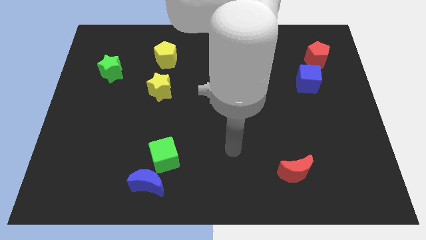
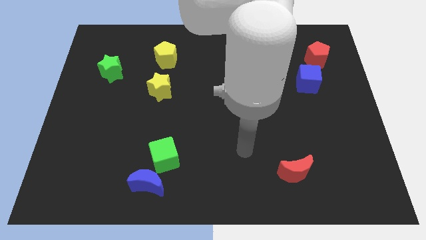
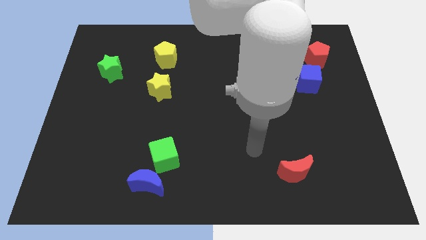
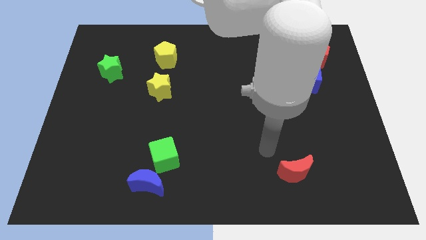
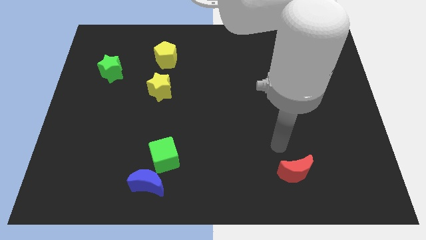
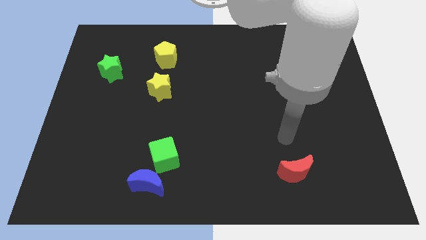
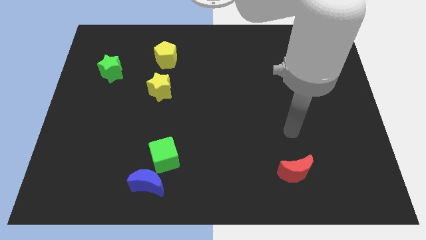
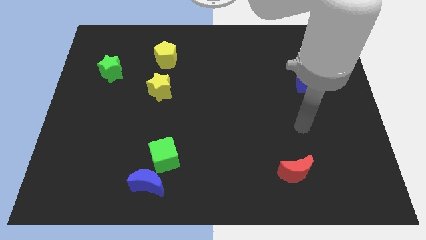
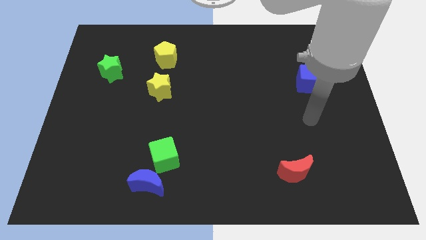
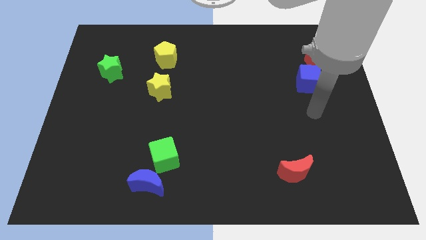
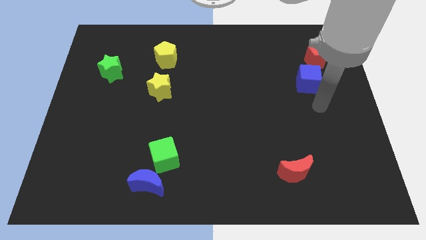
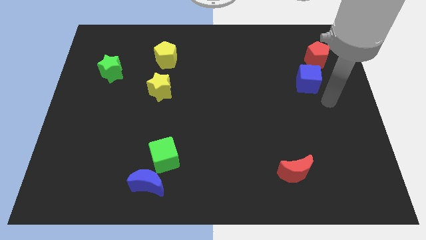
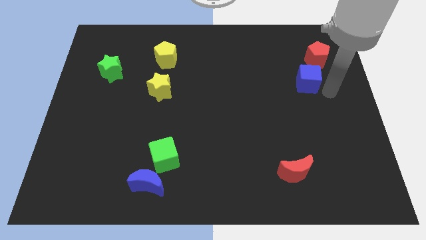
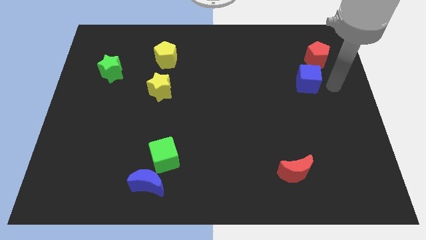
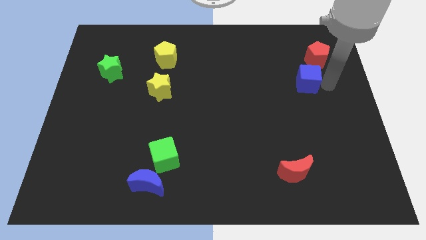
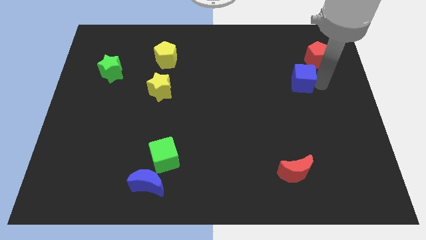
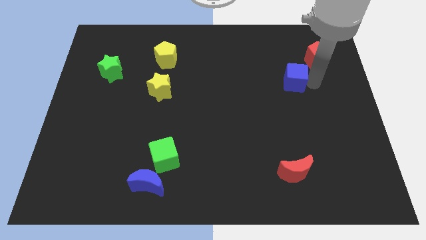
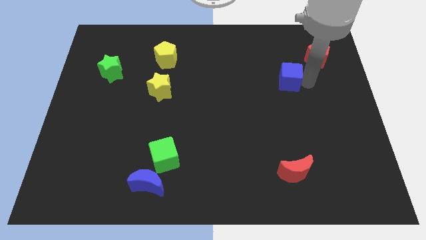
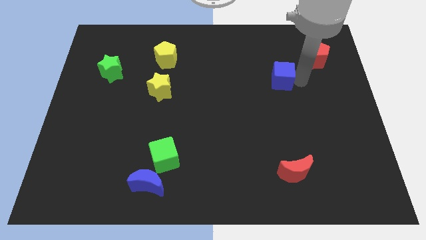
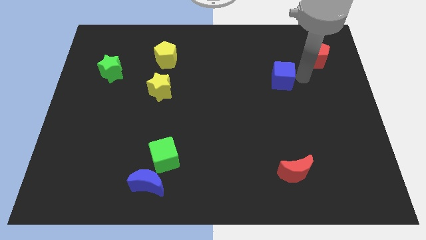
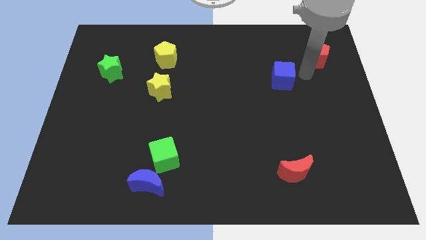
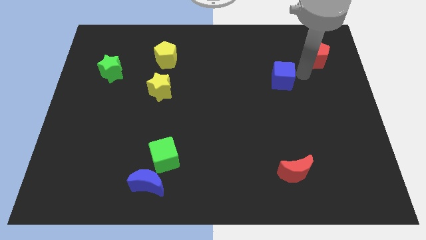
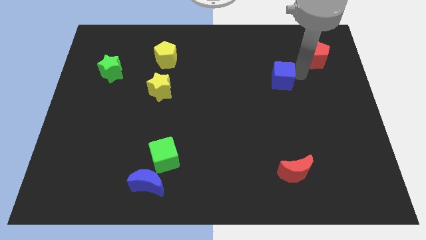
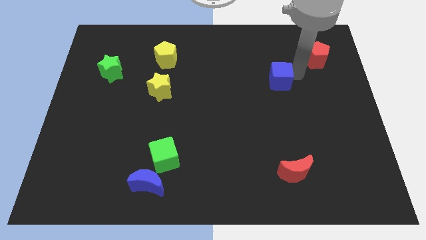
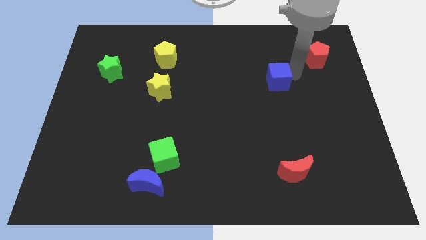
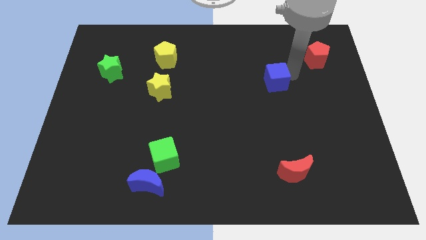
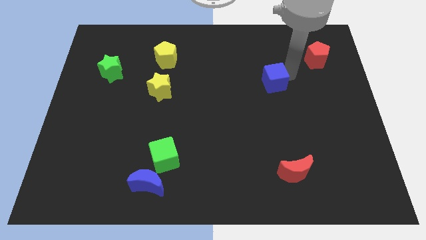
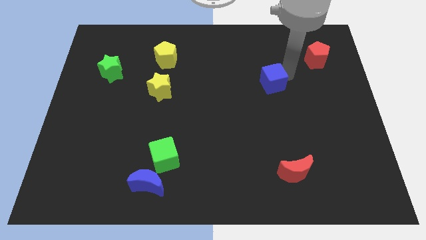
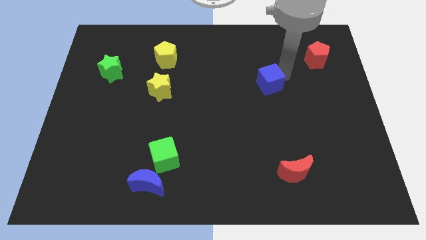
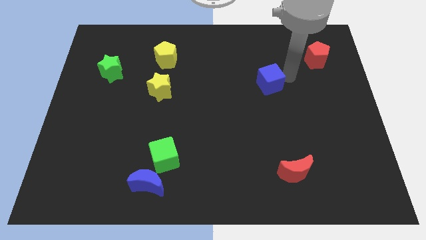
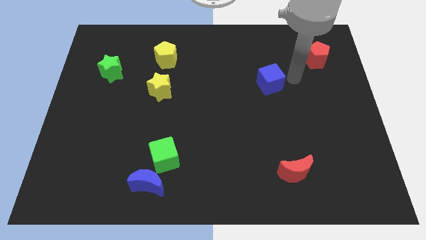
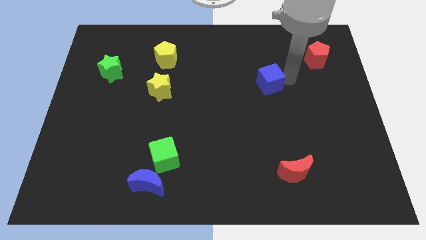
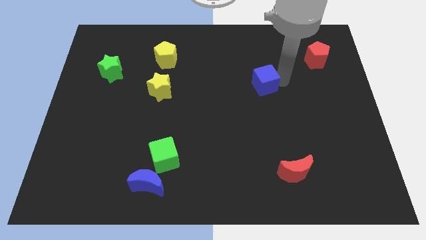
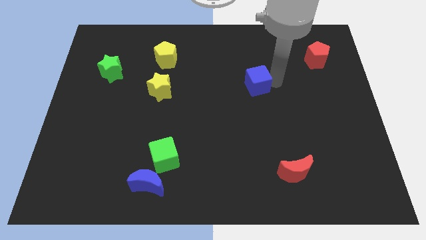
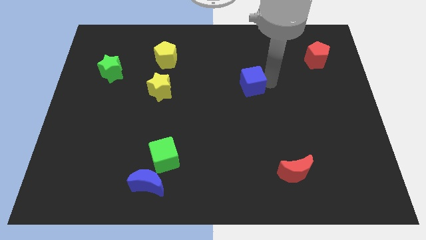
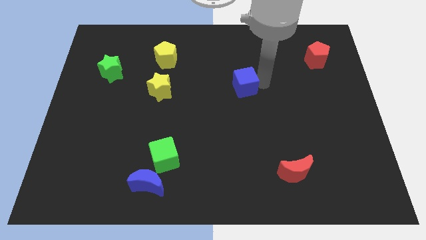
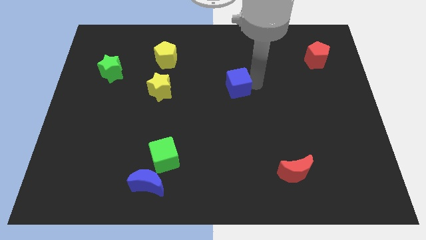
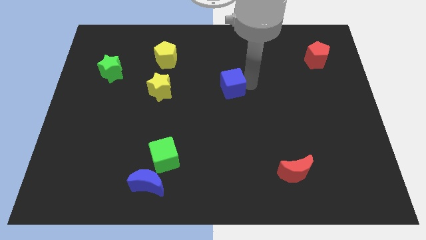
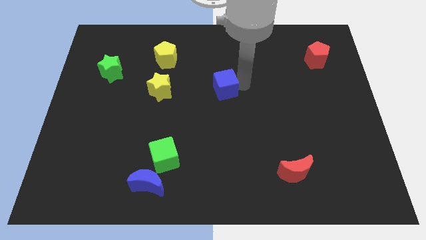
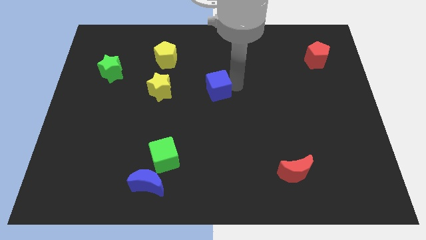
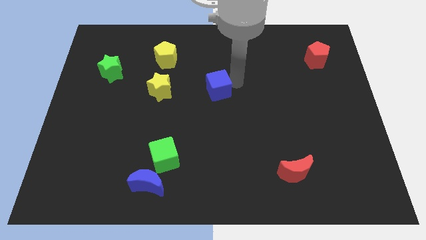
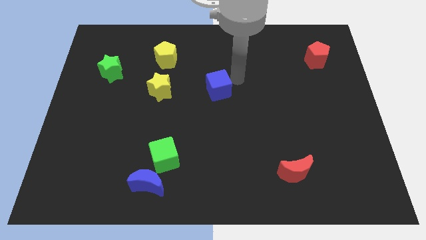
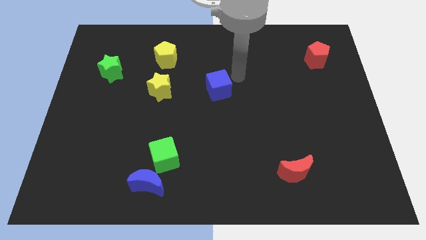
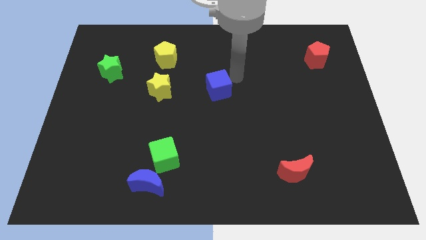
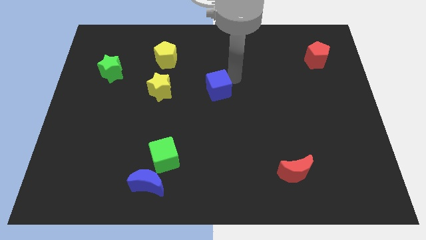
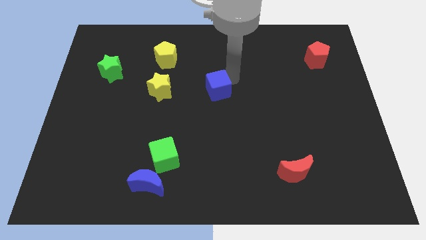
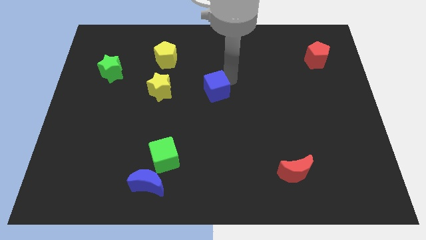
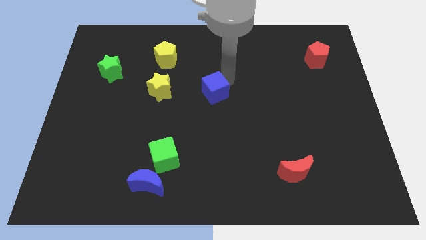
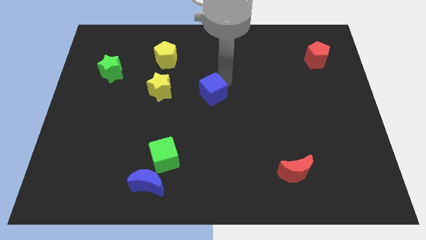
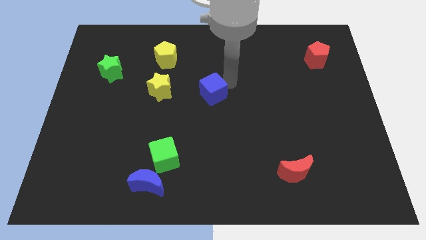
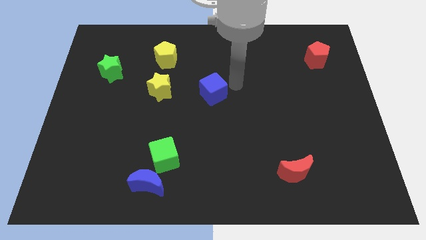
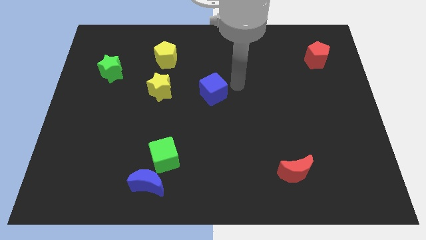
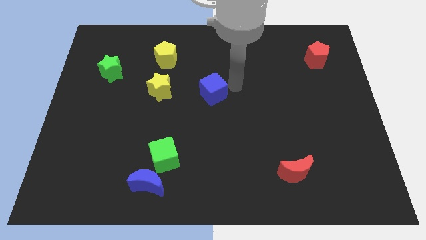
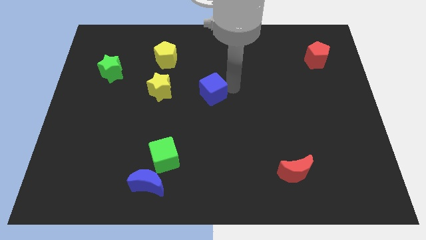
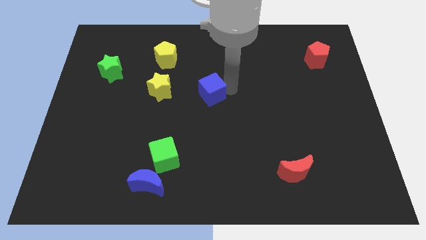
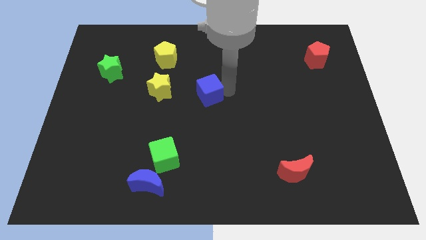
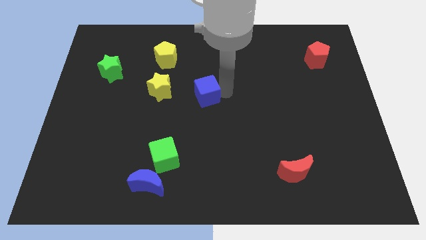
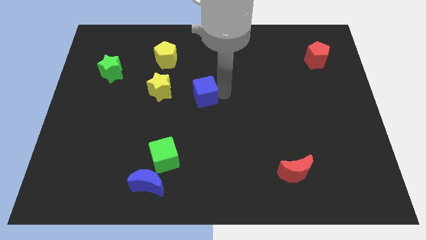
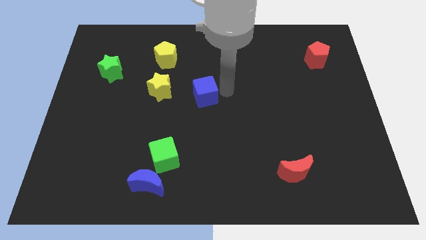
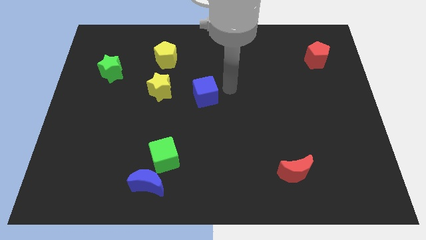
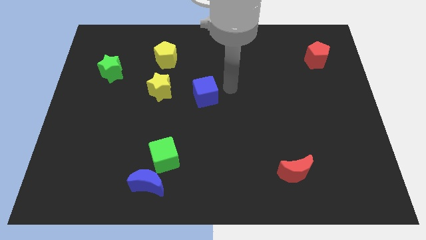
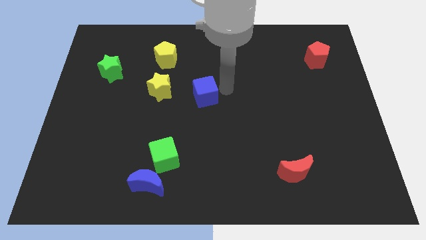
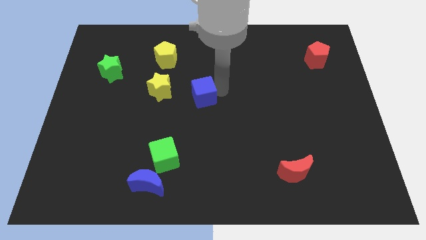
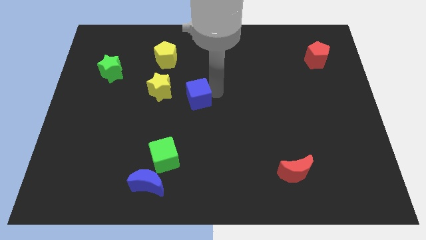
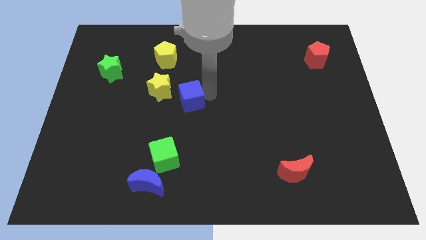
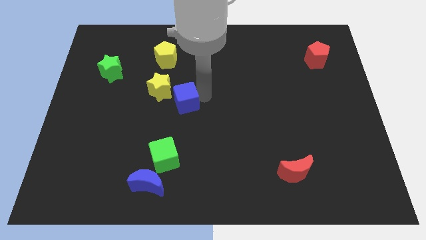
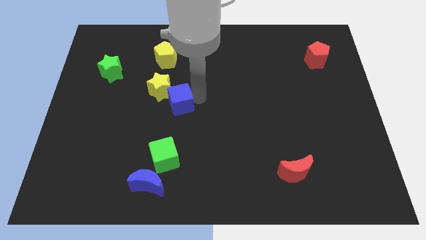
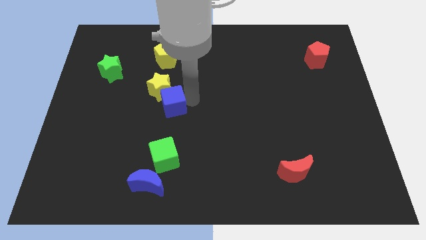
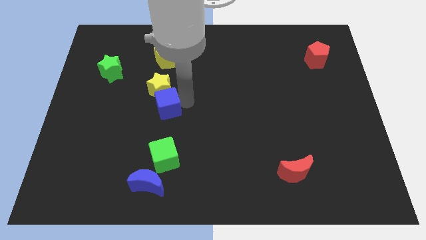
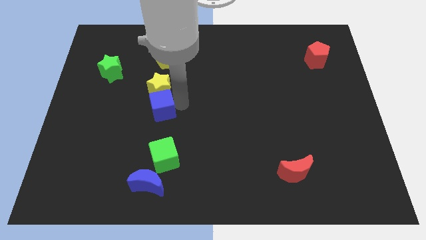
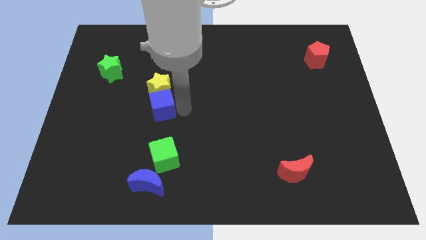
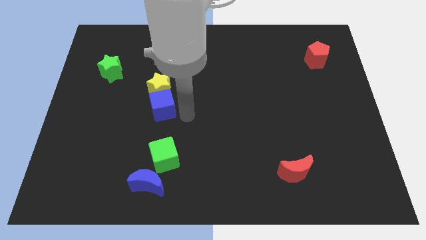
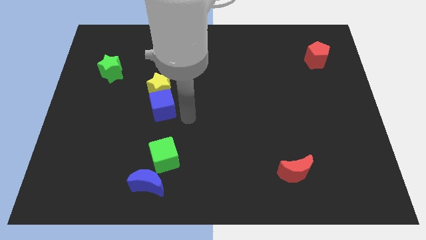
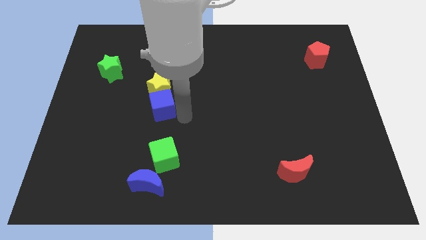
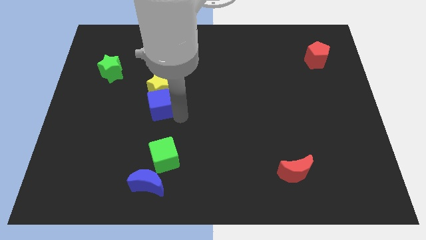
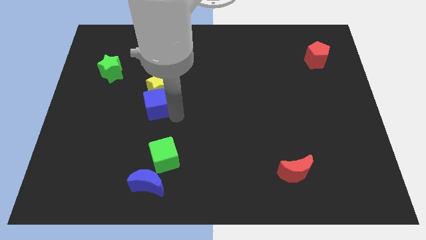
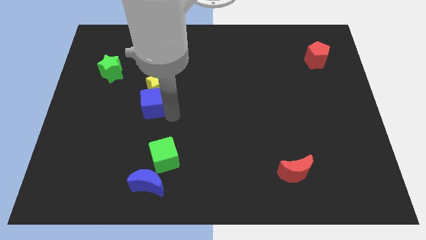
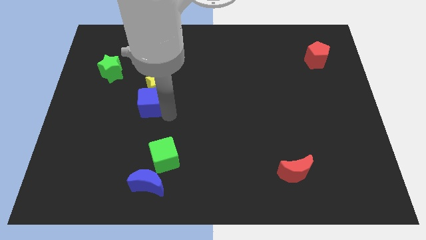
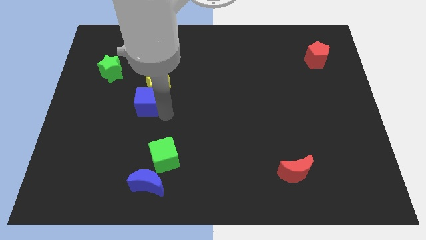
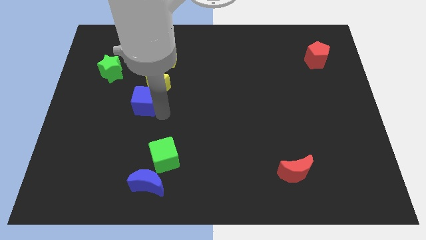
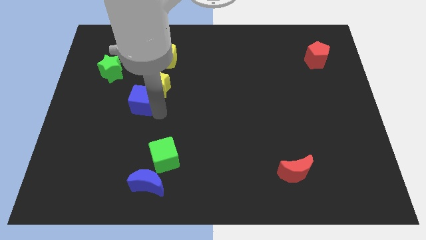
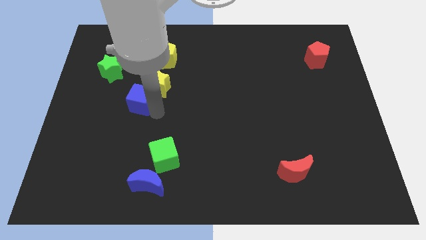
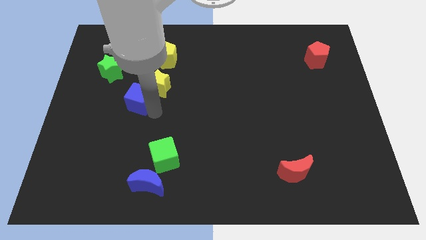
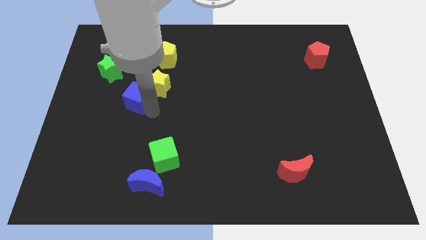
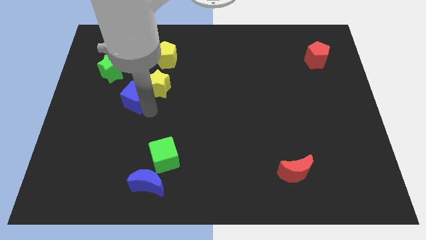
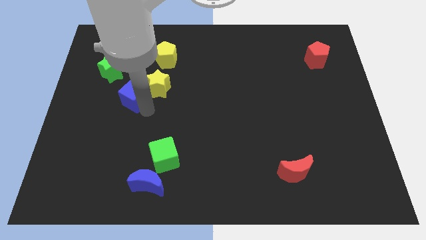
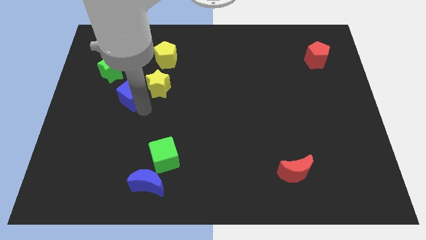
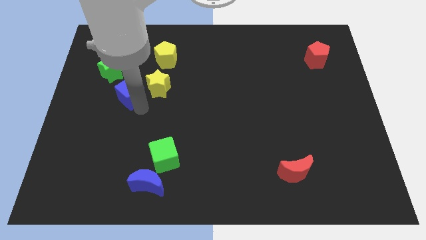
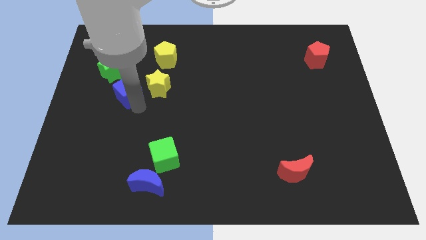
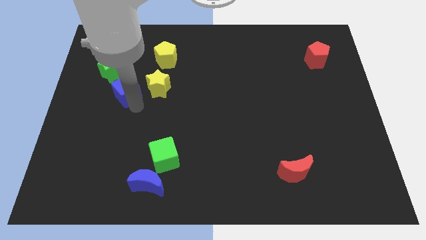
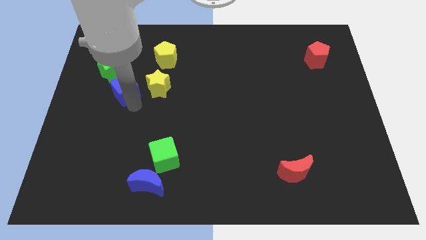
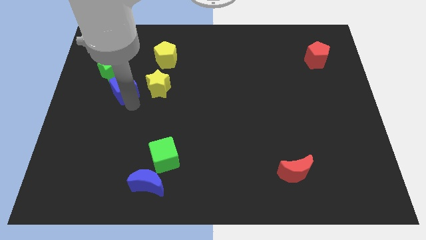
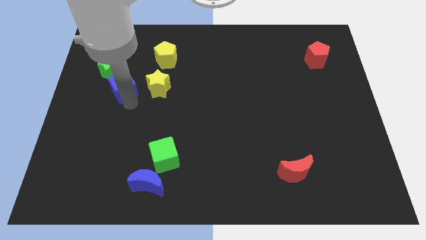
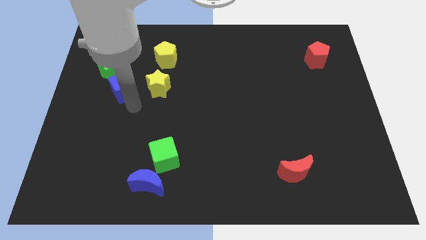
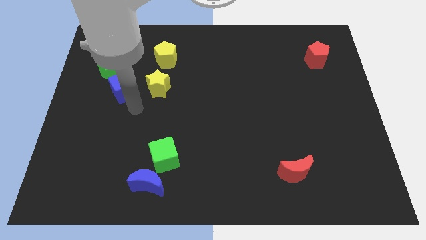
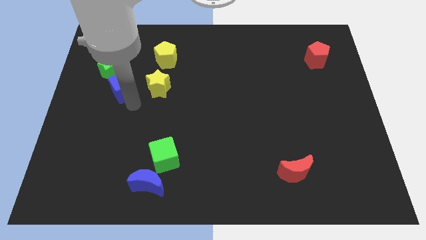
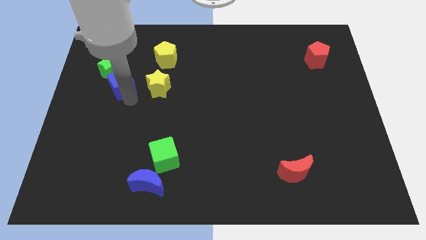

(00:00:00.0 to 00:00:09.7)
put the blue cube close to the green star
